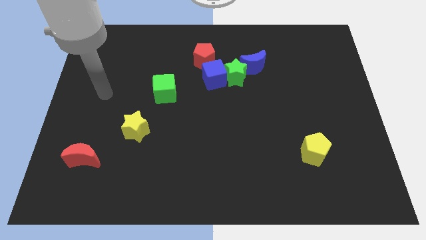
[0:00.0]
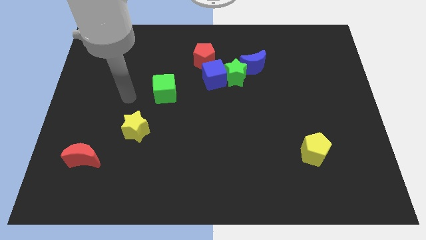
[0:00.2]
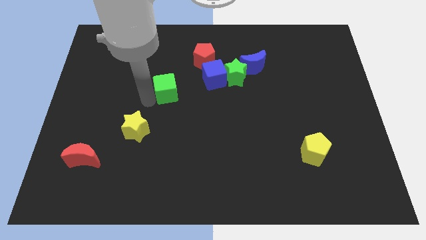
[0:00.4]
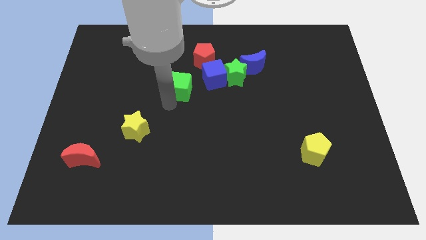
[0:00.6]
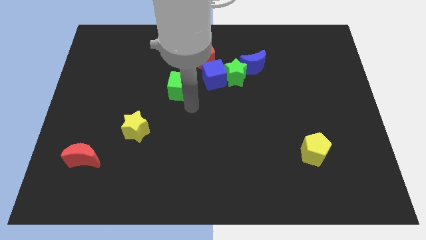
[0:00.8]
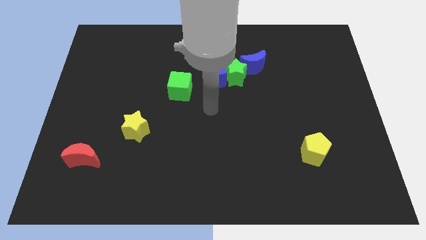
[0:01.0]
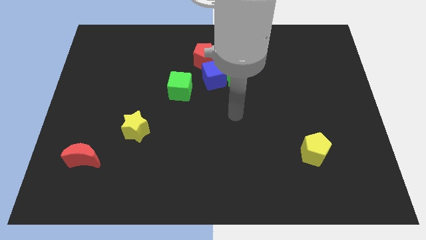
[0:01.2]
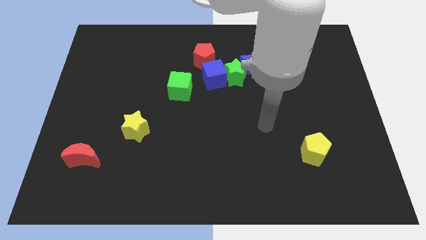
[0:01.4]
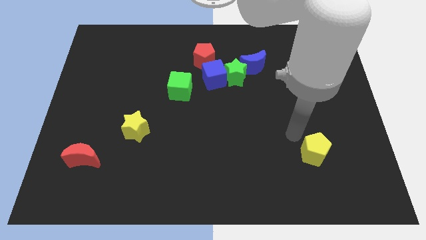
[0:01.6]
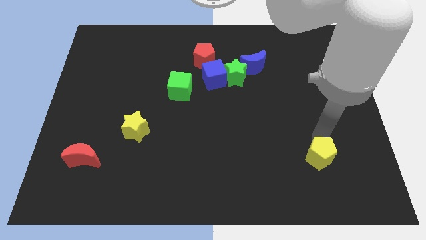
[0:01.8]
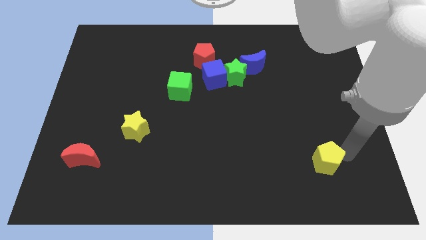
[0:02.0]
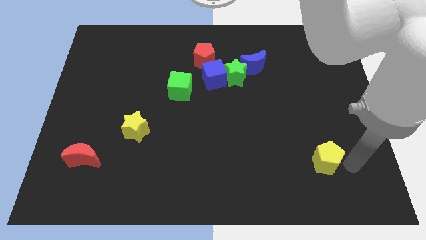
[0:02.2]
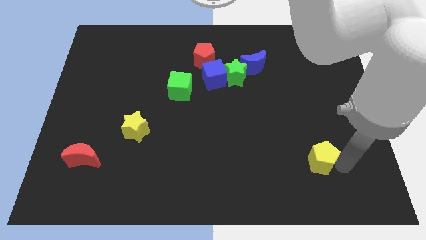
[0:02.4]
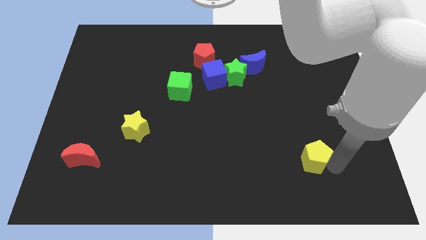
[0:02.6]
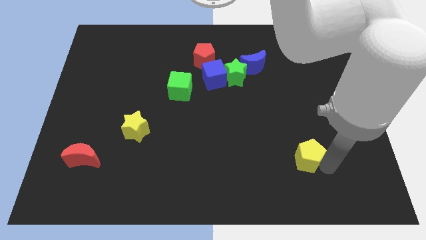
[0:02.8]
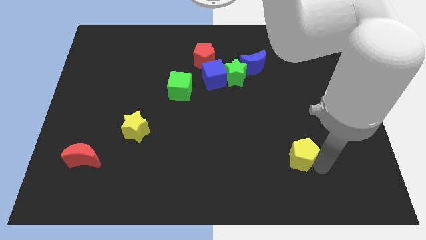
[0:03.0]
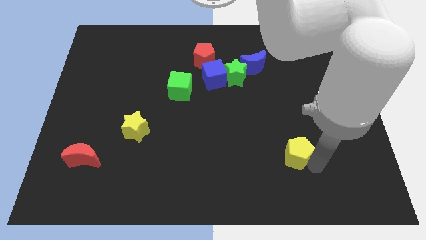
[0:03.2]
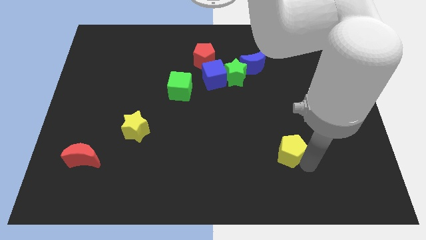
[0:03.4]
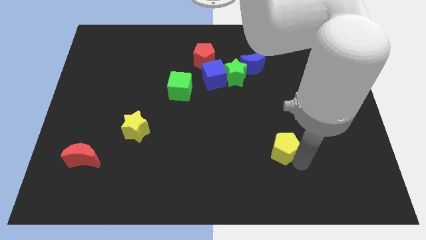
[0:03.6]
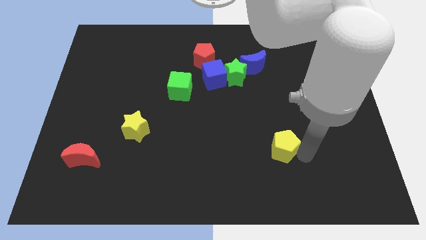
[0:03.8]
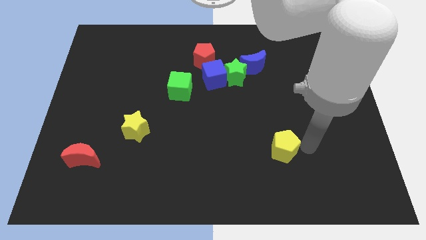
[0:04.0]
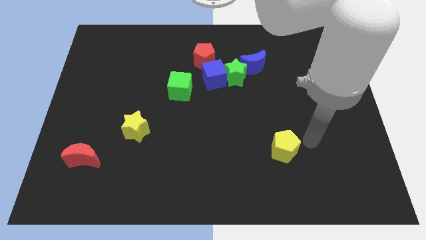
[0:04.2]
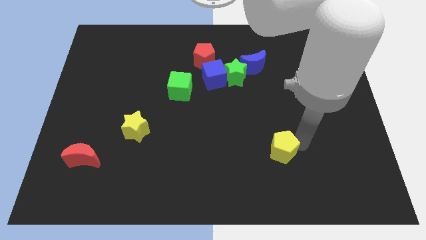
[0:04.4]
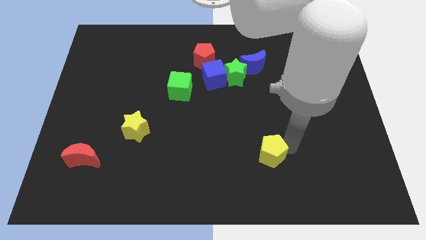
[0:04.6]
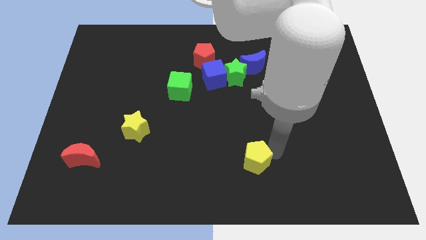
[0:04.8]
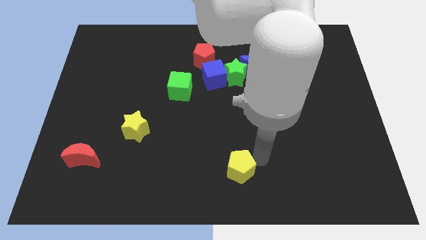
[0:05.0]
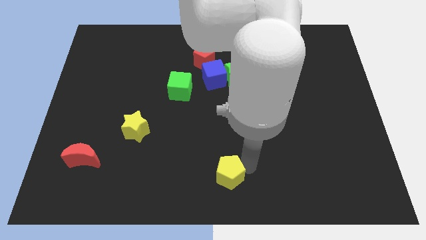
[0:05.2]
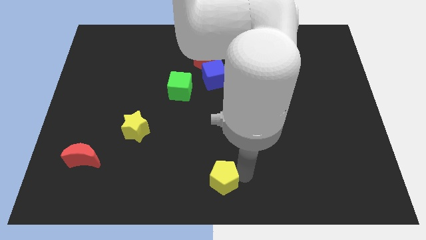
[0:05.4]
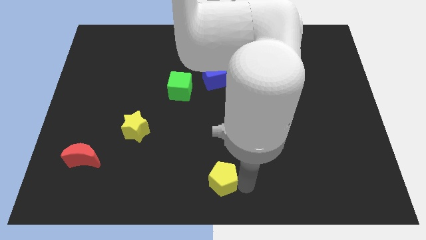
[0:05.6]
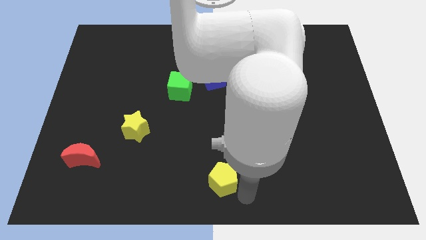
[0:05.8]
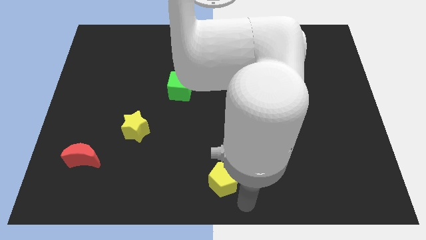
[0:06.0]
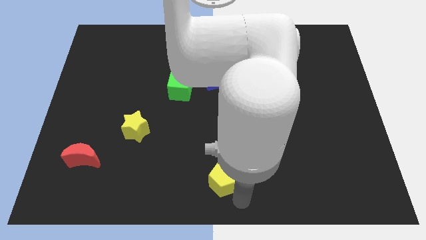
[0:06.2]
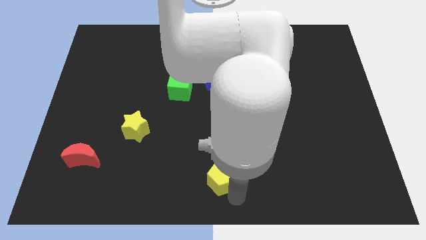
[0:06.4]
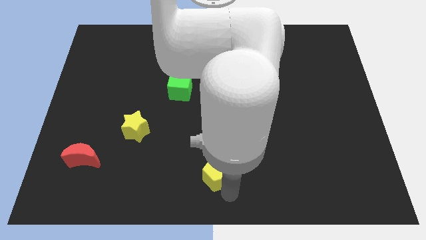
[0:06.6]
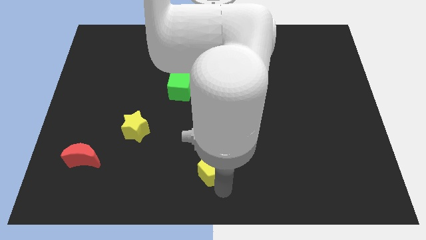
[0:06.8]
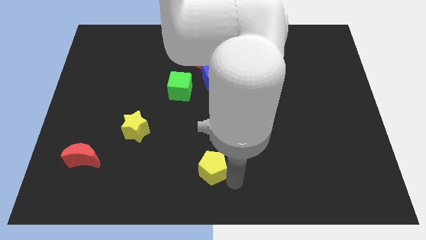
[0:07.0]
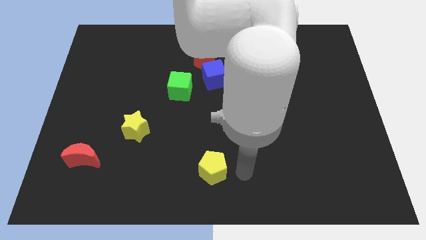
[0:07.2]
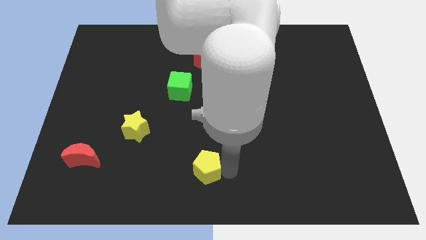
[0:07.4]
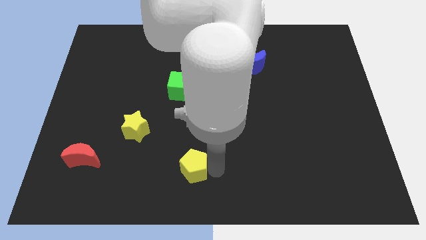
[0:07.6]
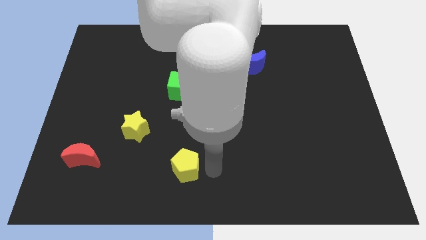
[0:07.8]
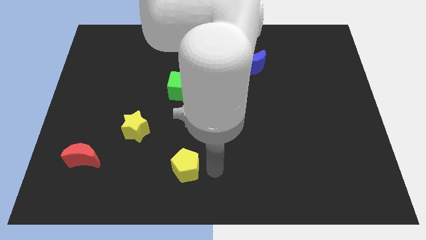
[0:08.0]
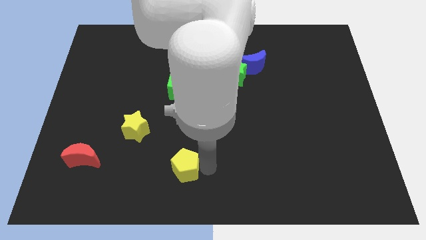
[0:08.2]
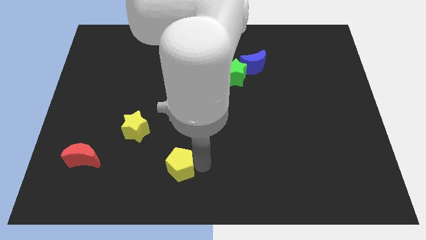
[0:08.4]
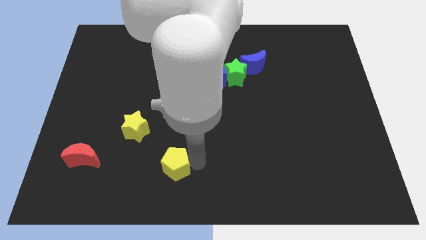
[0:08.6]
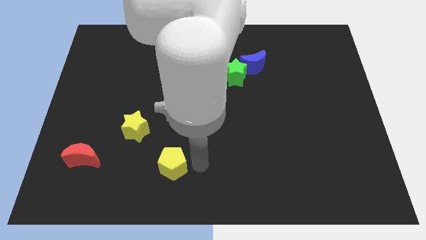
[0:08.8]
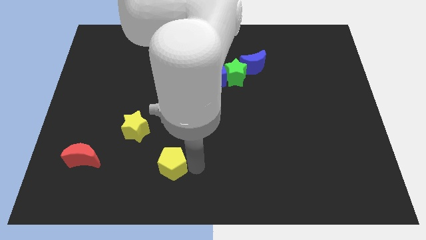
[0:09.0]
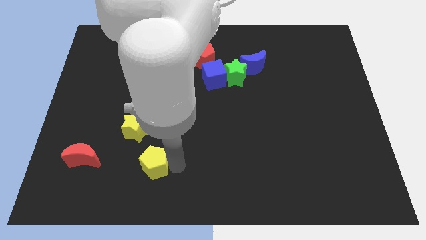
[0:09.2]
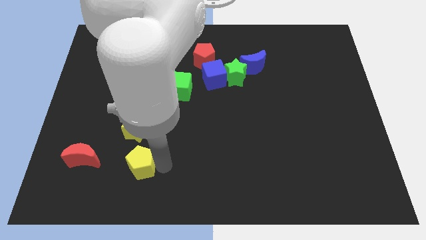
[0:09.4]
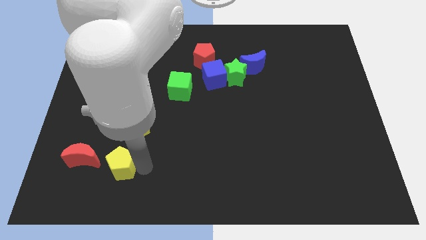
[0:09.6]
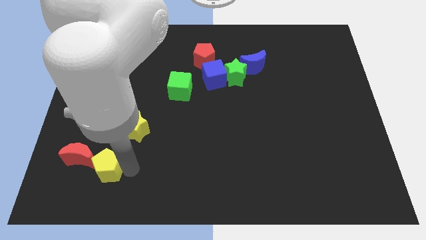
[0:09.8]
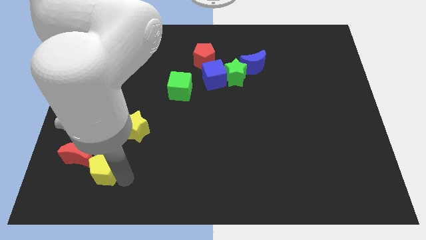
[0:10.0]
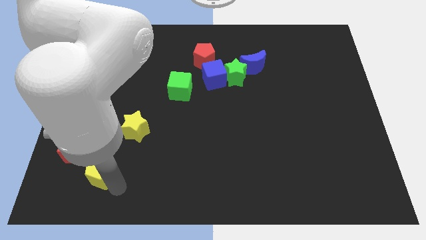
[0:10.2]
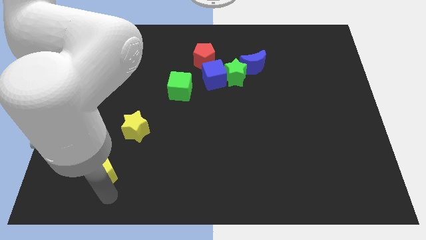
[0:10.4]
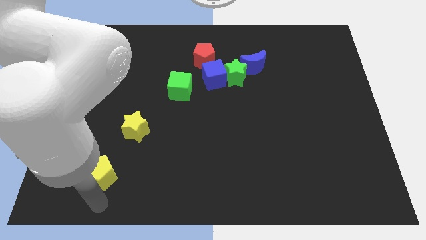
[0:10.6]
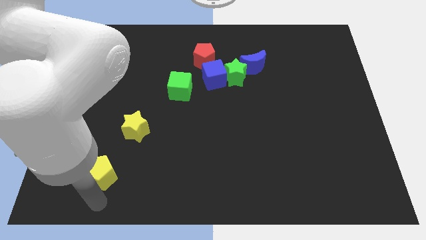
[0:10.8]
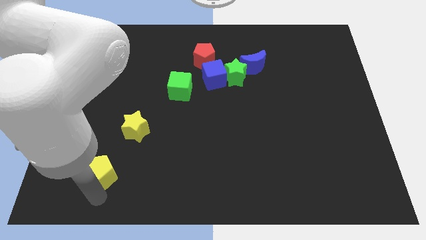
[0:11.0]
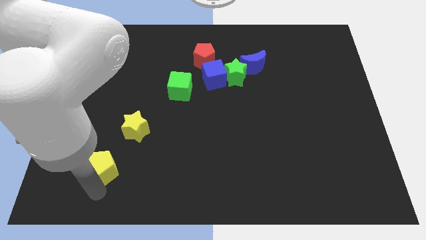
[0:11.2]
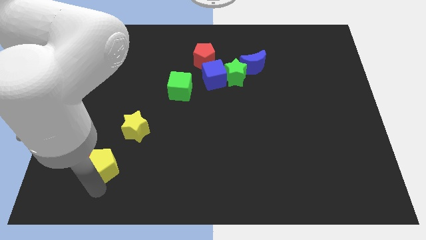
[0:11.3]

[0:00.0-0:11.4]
move the yellow pentagon to the red moon

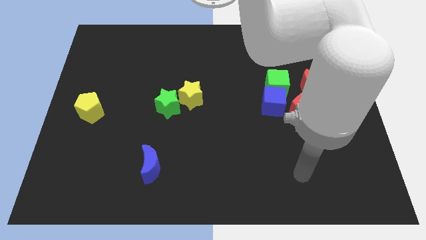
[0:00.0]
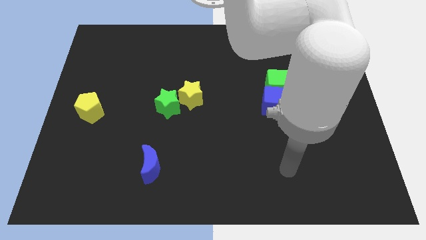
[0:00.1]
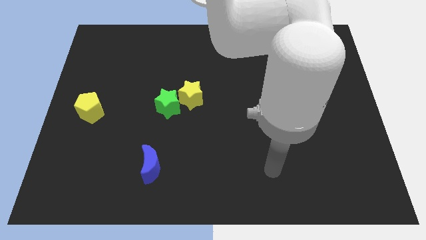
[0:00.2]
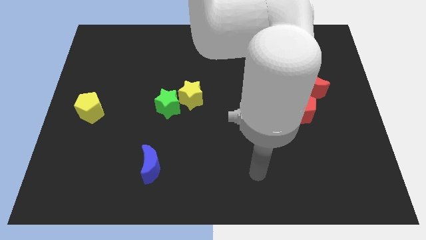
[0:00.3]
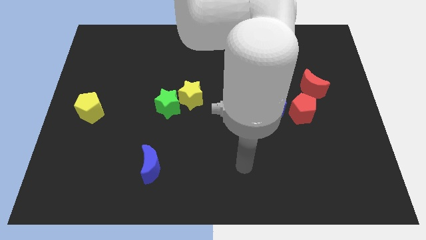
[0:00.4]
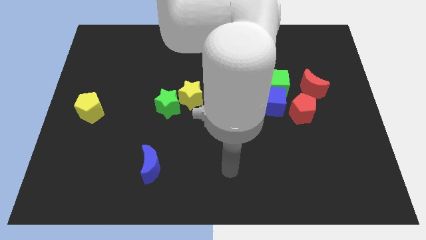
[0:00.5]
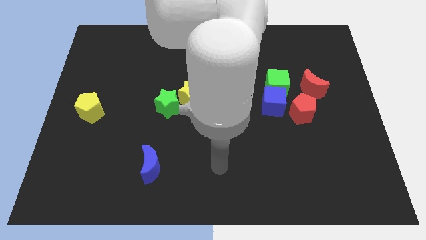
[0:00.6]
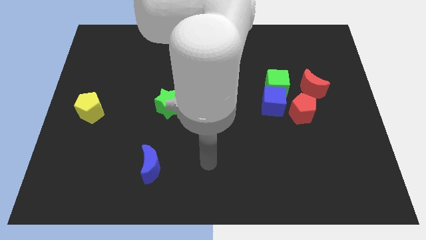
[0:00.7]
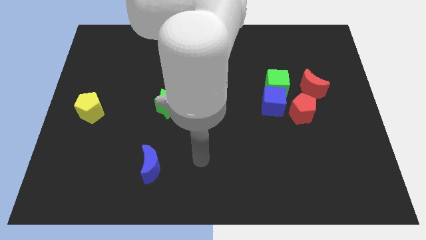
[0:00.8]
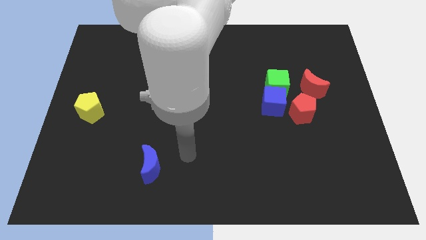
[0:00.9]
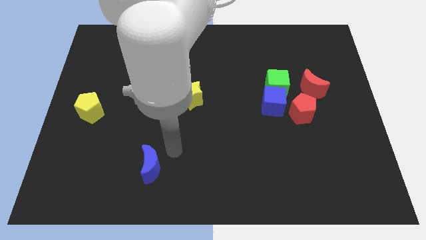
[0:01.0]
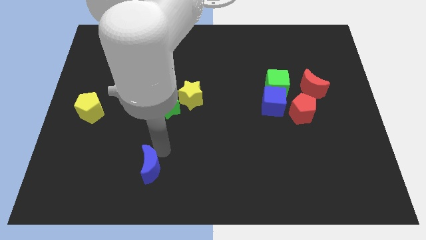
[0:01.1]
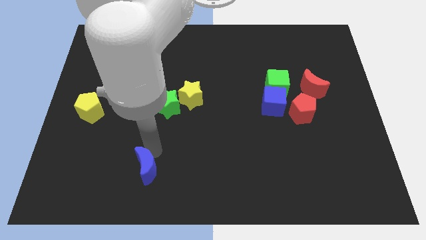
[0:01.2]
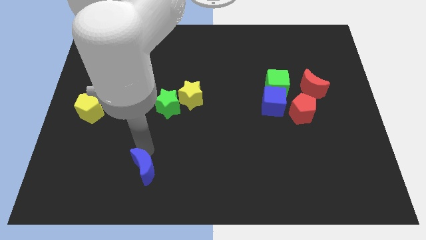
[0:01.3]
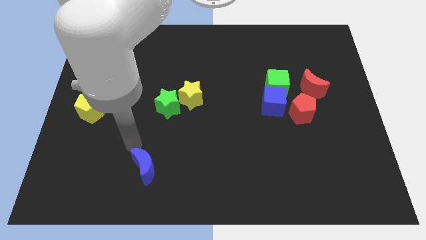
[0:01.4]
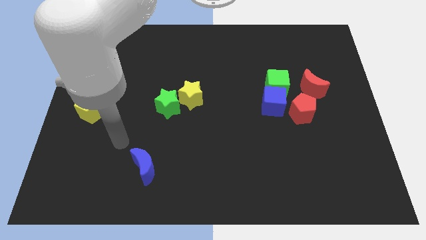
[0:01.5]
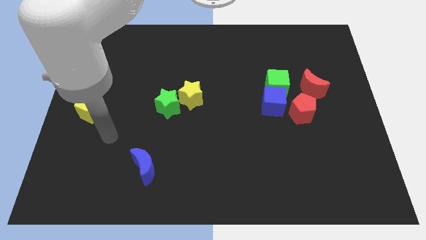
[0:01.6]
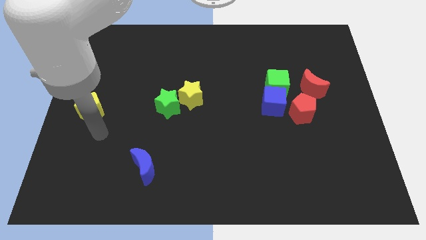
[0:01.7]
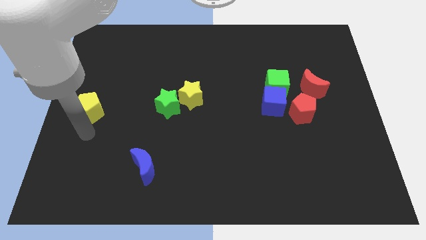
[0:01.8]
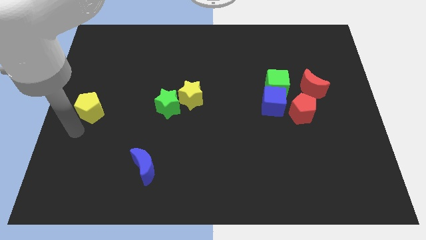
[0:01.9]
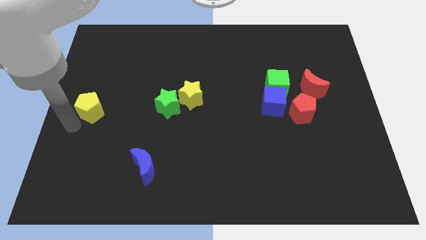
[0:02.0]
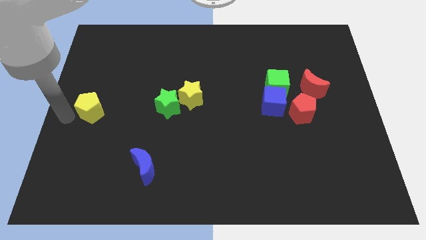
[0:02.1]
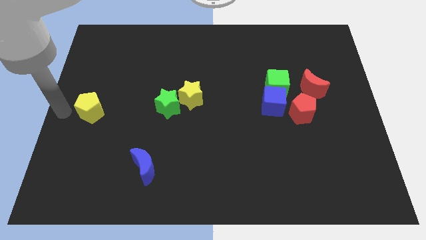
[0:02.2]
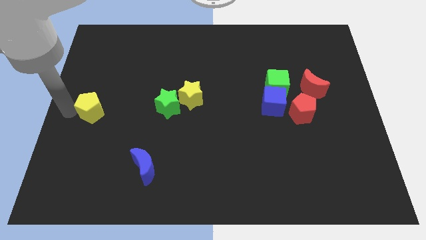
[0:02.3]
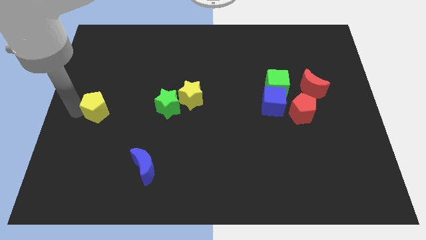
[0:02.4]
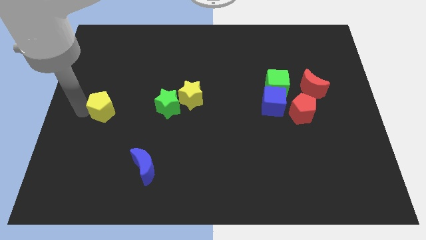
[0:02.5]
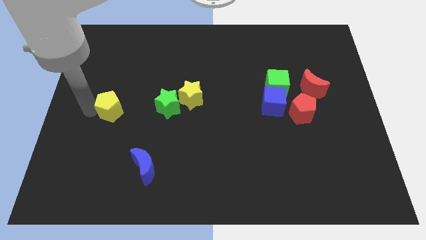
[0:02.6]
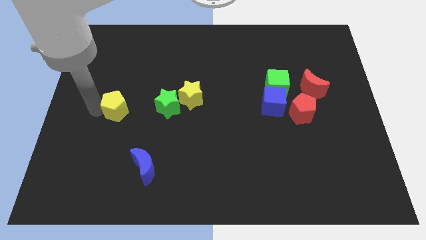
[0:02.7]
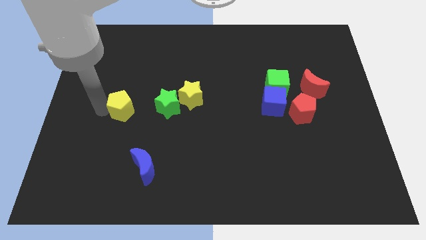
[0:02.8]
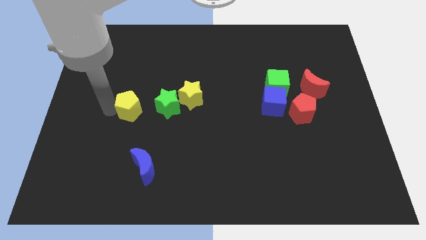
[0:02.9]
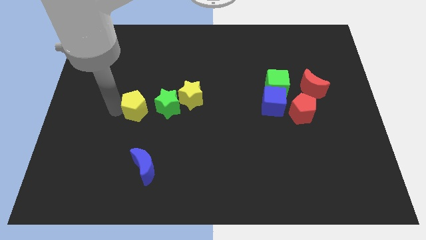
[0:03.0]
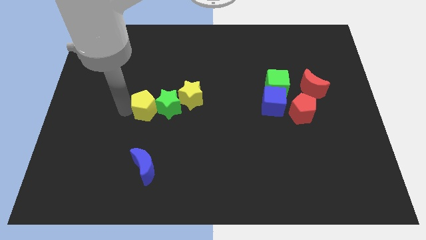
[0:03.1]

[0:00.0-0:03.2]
move the yellow pentagon to the green star
